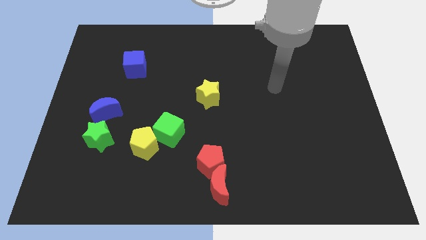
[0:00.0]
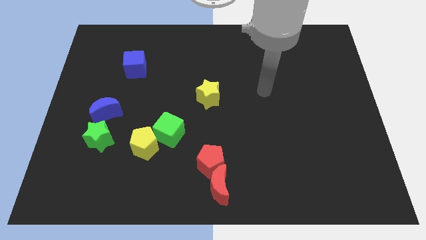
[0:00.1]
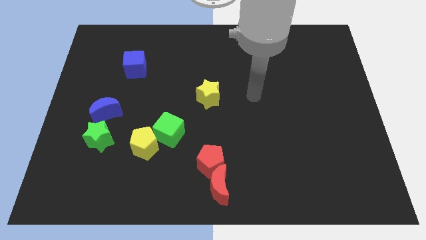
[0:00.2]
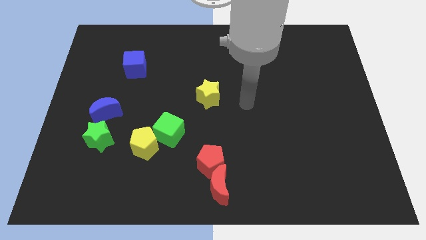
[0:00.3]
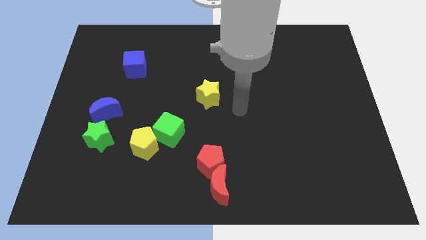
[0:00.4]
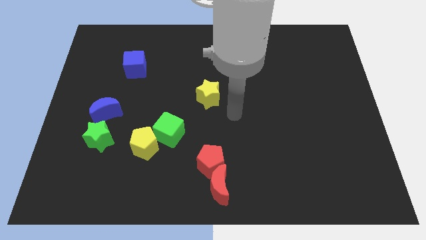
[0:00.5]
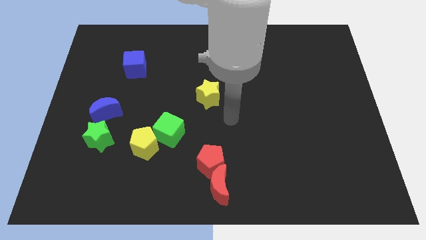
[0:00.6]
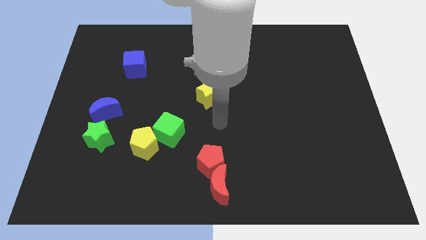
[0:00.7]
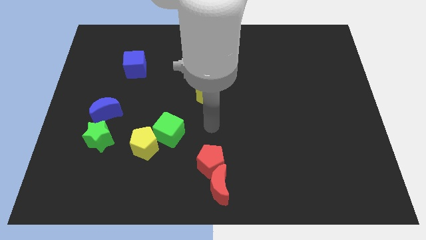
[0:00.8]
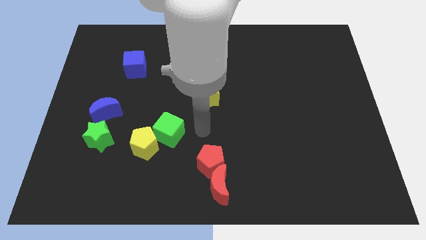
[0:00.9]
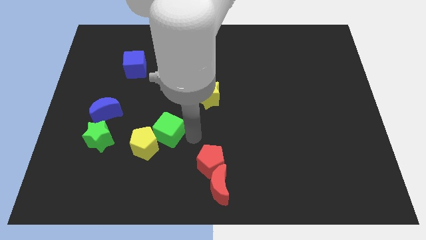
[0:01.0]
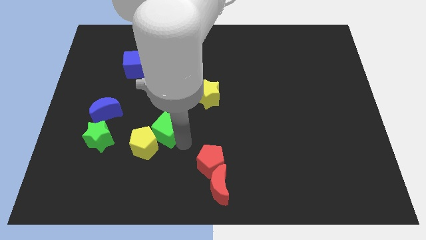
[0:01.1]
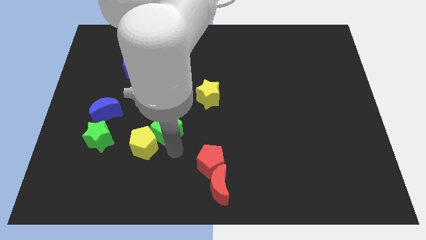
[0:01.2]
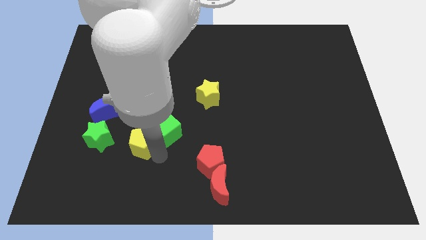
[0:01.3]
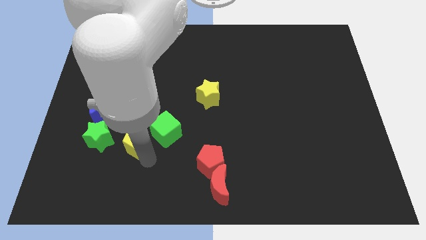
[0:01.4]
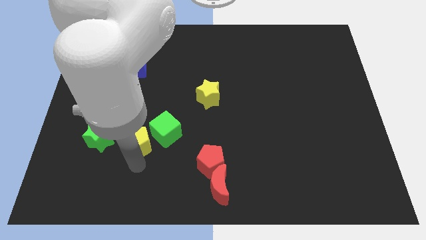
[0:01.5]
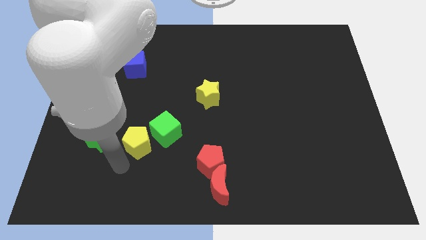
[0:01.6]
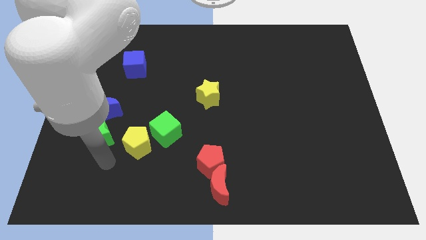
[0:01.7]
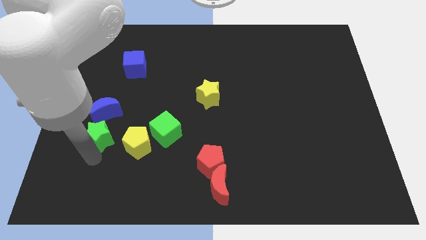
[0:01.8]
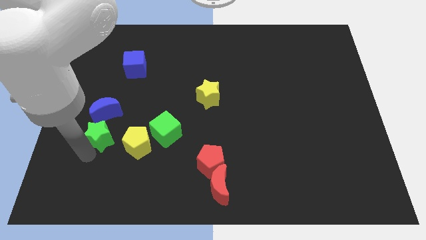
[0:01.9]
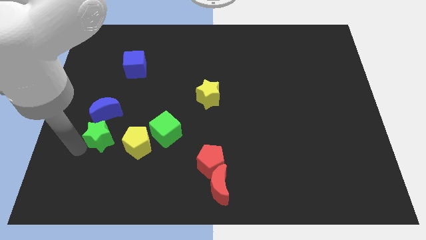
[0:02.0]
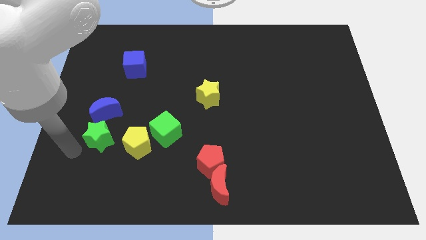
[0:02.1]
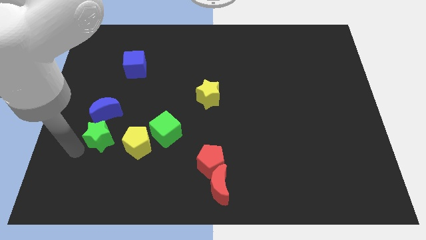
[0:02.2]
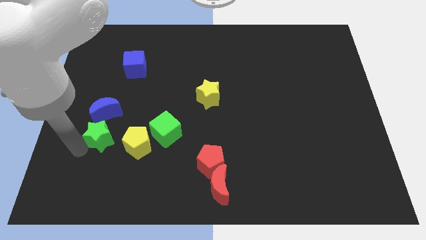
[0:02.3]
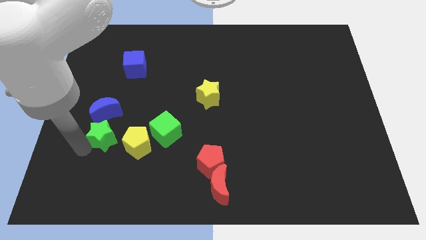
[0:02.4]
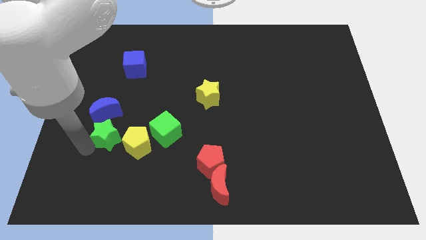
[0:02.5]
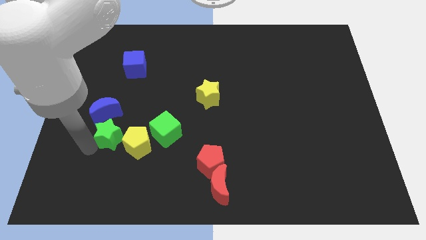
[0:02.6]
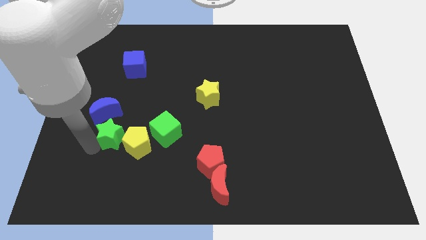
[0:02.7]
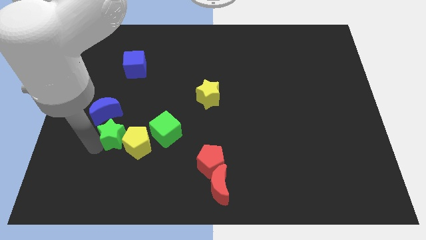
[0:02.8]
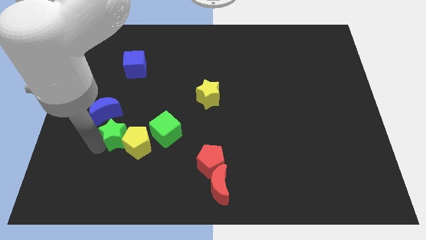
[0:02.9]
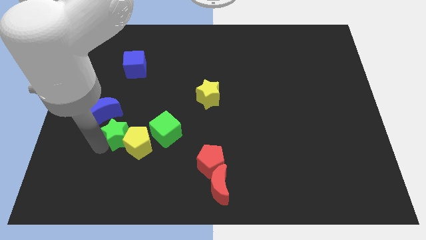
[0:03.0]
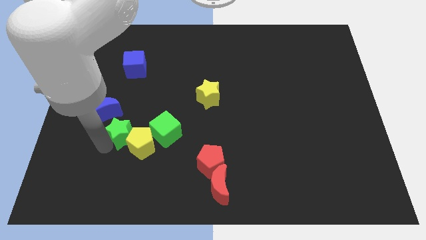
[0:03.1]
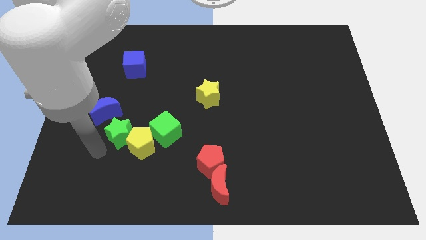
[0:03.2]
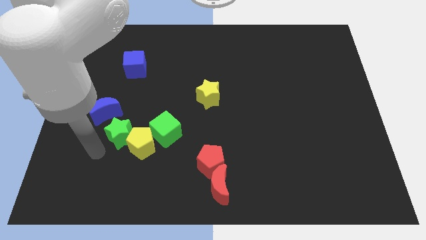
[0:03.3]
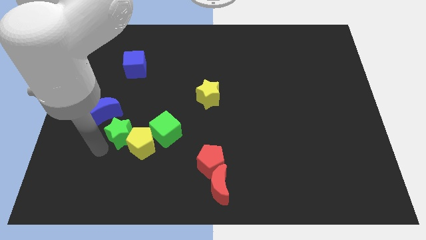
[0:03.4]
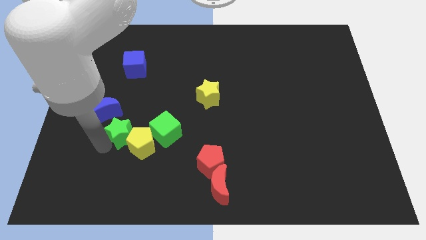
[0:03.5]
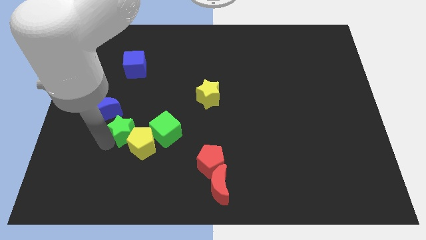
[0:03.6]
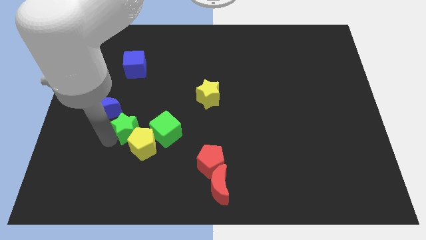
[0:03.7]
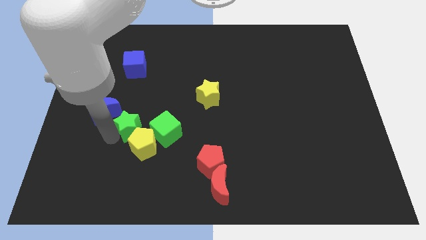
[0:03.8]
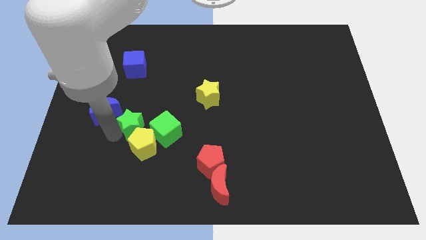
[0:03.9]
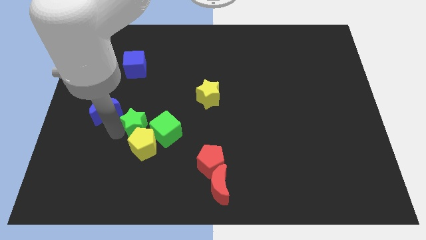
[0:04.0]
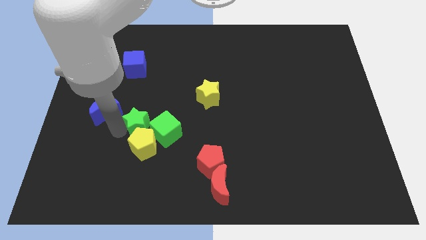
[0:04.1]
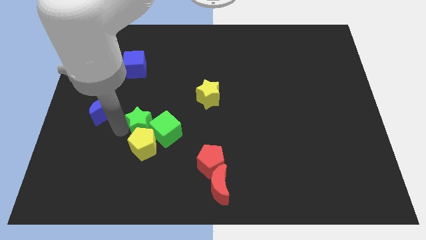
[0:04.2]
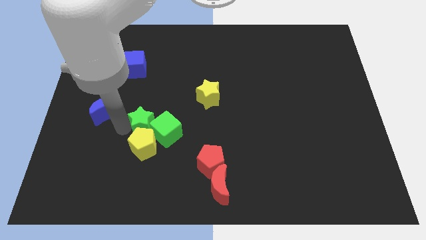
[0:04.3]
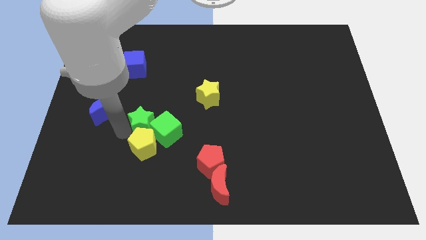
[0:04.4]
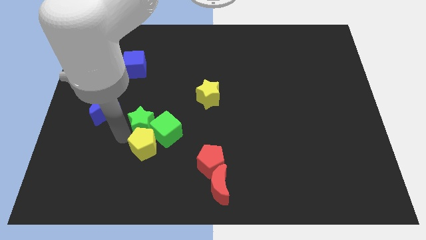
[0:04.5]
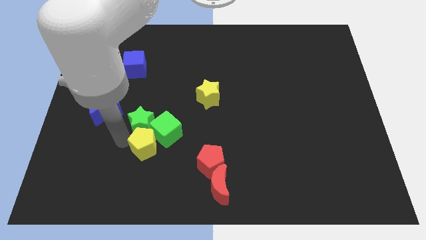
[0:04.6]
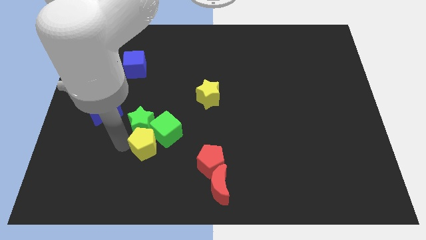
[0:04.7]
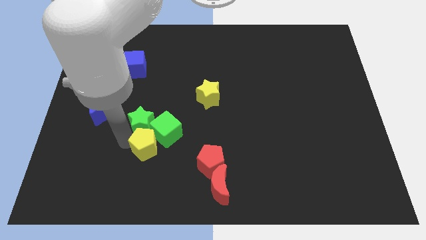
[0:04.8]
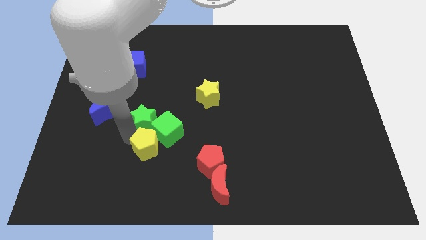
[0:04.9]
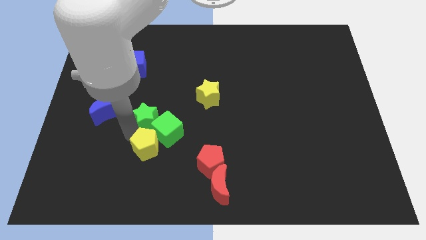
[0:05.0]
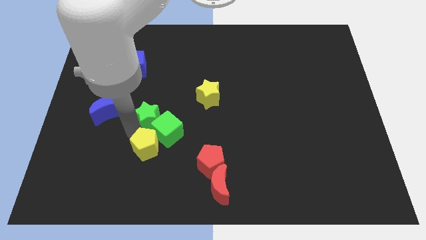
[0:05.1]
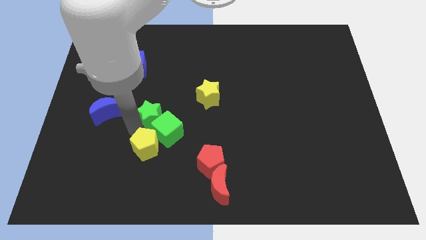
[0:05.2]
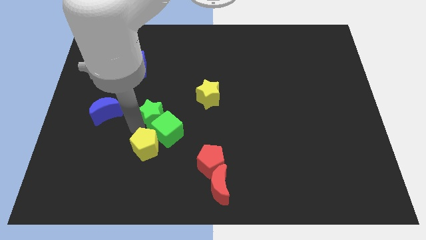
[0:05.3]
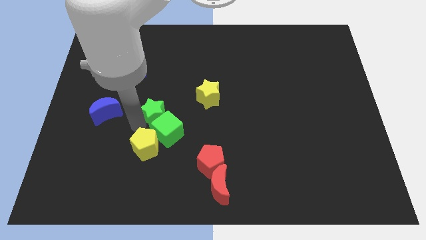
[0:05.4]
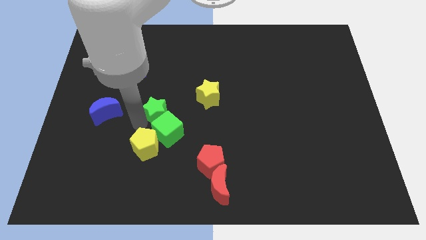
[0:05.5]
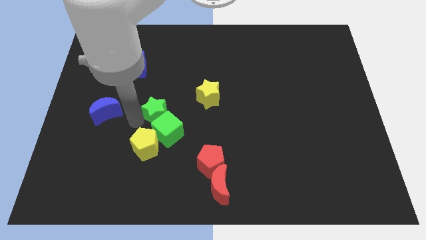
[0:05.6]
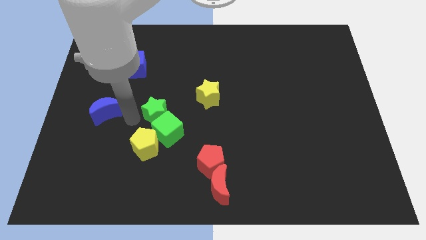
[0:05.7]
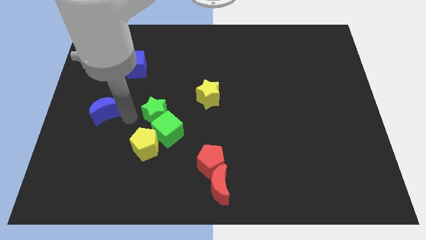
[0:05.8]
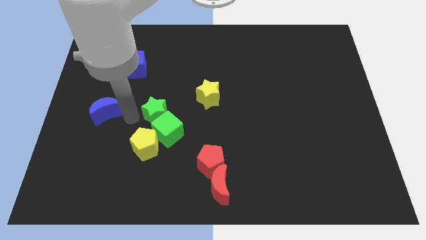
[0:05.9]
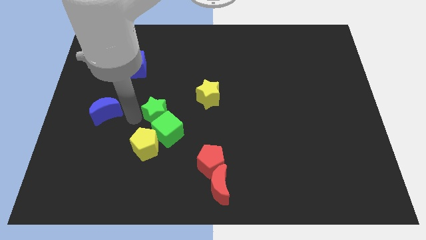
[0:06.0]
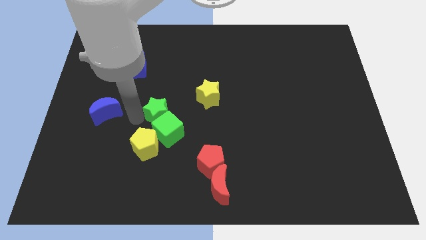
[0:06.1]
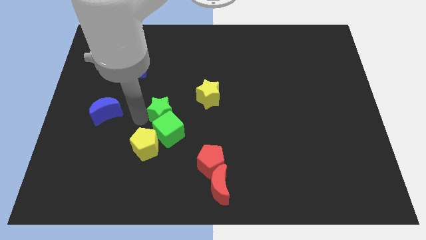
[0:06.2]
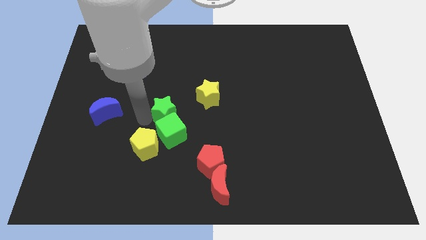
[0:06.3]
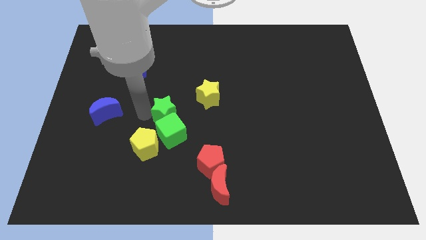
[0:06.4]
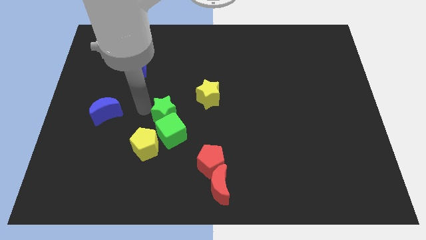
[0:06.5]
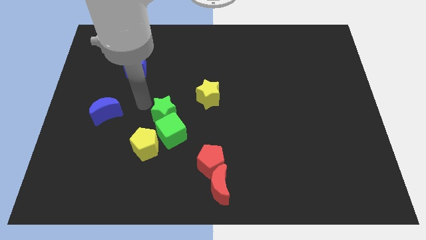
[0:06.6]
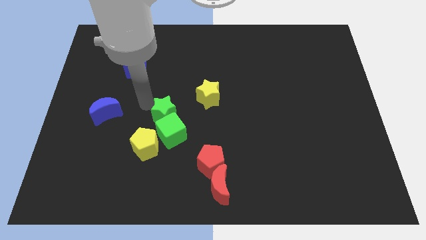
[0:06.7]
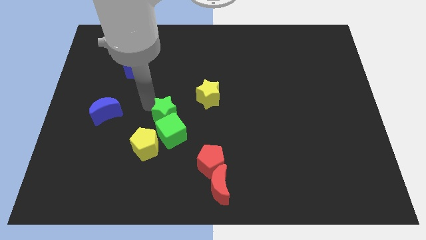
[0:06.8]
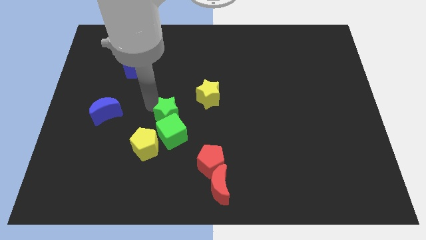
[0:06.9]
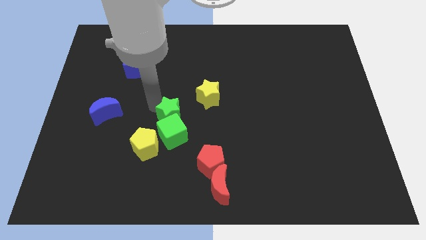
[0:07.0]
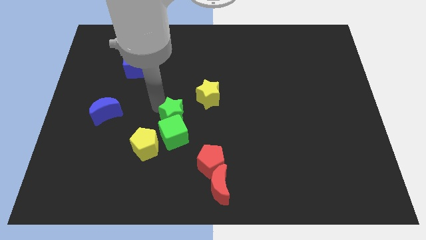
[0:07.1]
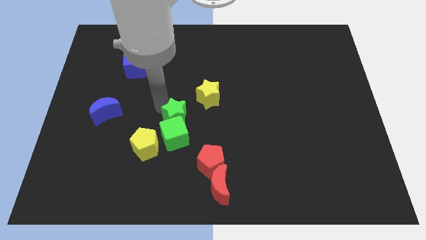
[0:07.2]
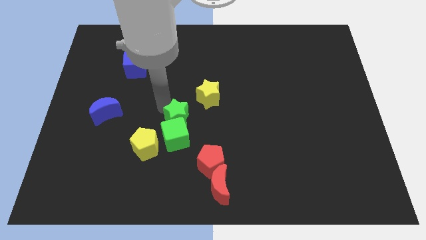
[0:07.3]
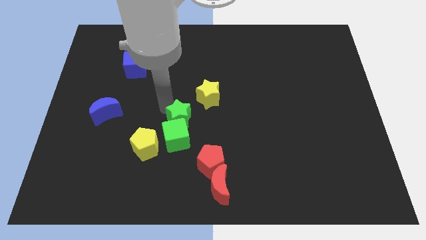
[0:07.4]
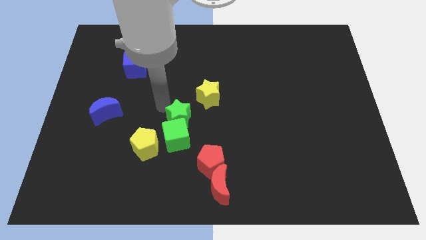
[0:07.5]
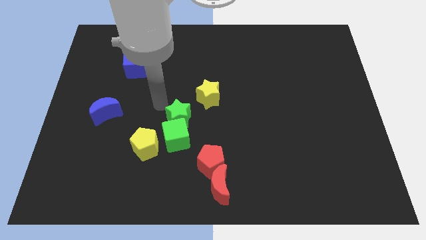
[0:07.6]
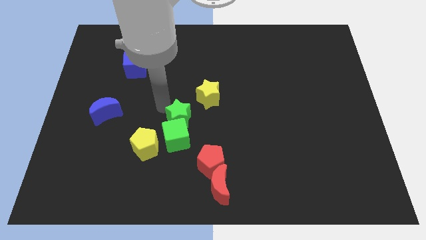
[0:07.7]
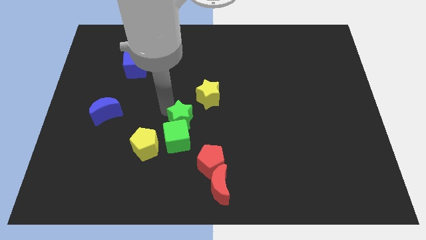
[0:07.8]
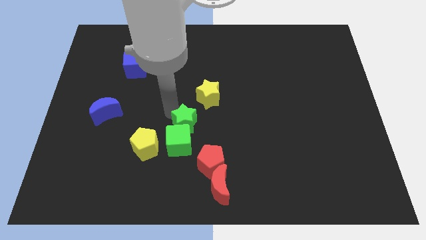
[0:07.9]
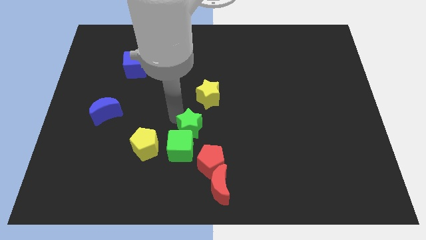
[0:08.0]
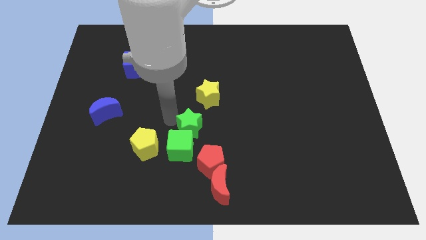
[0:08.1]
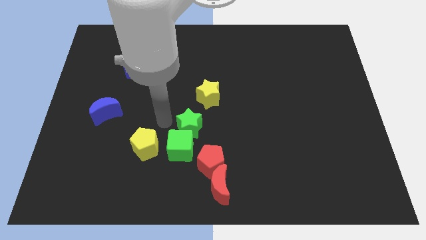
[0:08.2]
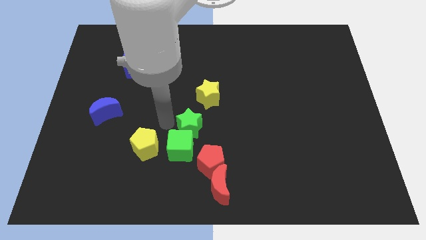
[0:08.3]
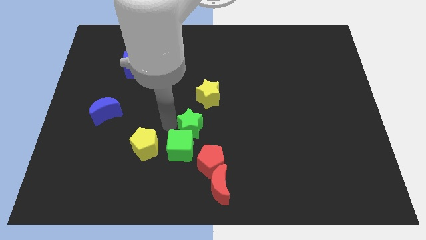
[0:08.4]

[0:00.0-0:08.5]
move the green star to the right
